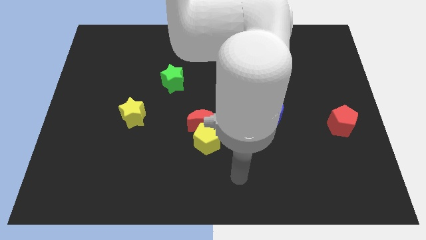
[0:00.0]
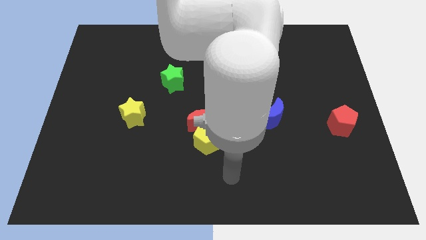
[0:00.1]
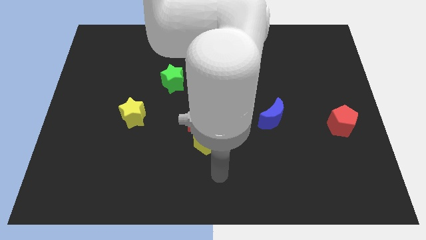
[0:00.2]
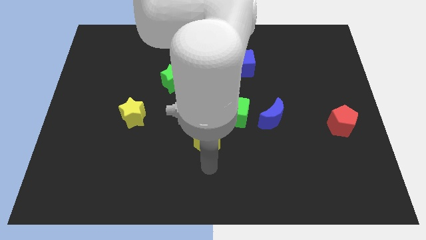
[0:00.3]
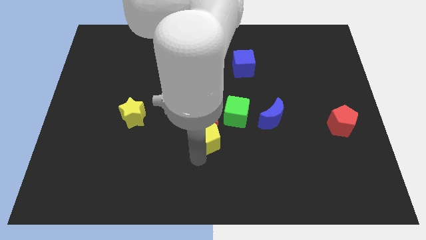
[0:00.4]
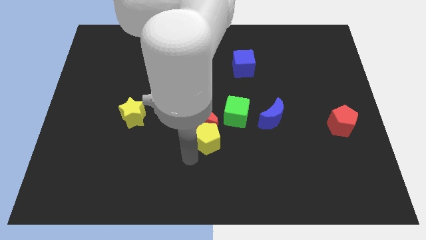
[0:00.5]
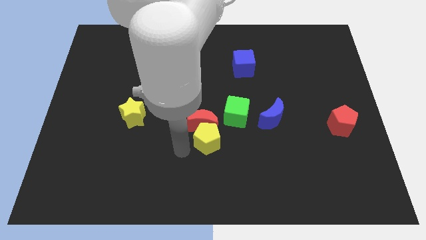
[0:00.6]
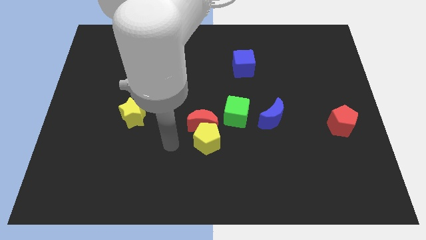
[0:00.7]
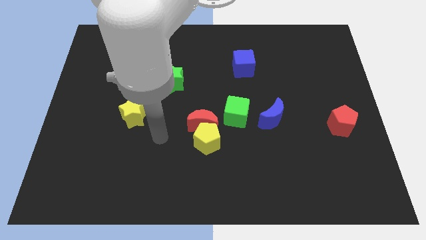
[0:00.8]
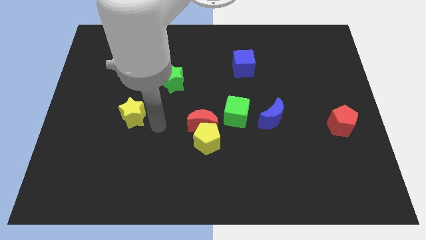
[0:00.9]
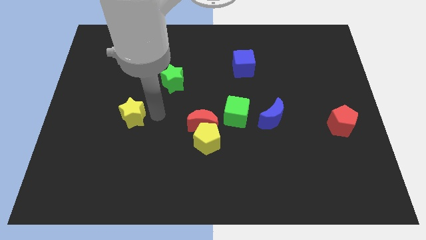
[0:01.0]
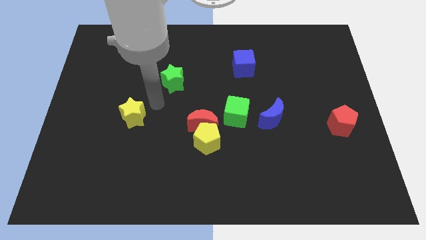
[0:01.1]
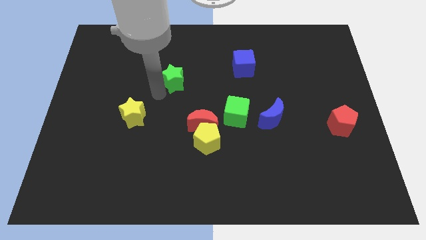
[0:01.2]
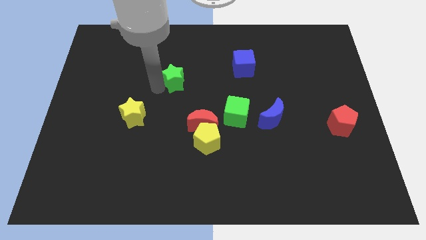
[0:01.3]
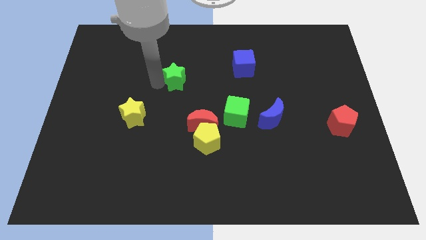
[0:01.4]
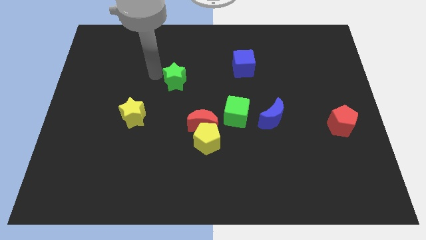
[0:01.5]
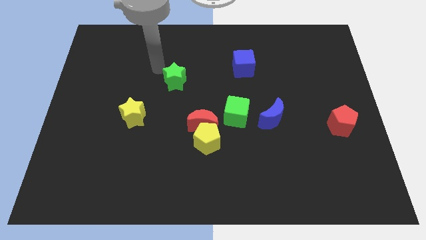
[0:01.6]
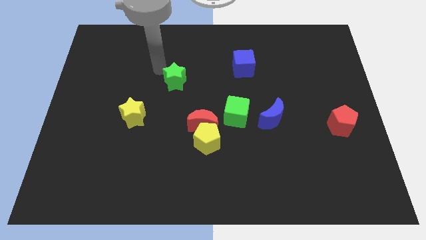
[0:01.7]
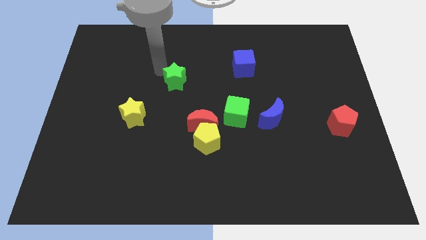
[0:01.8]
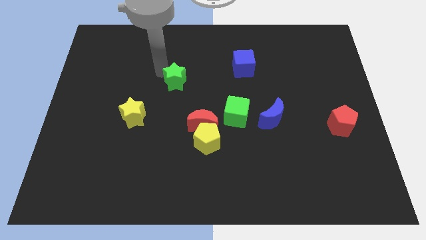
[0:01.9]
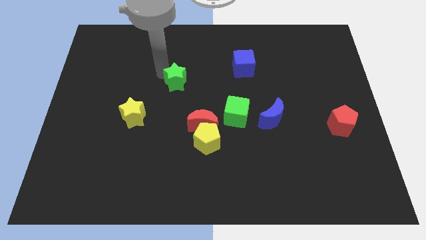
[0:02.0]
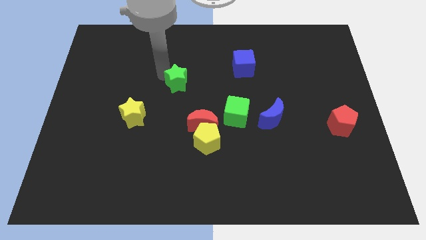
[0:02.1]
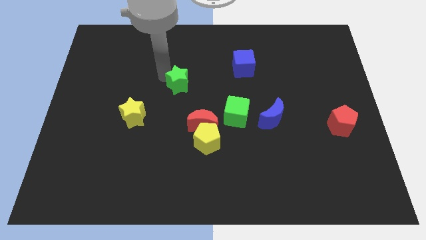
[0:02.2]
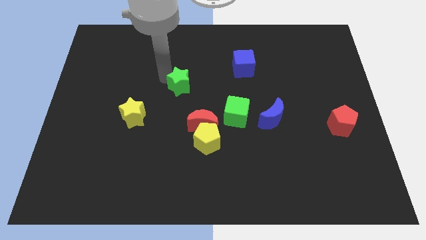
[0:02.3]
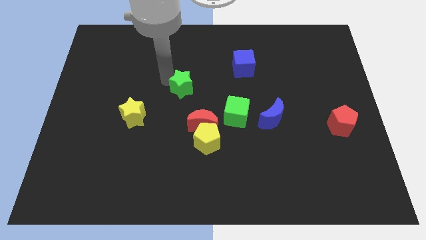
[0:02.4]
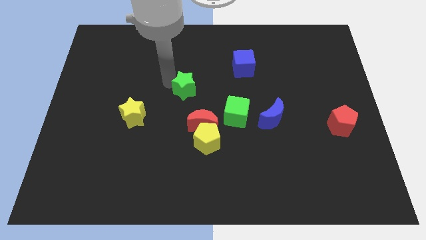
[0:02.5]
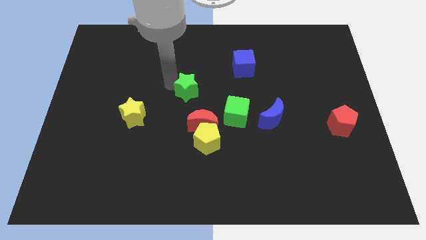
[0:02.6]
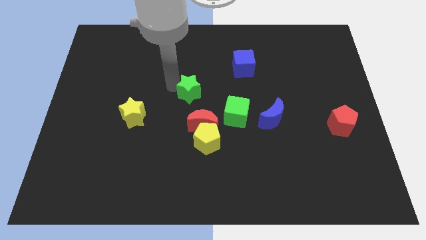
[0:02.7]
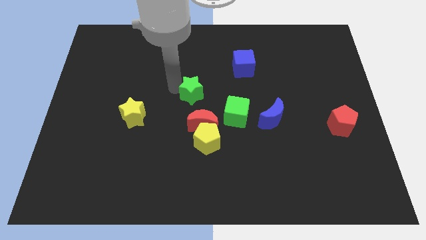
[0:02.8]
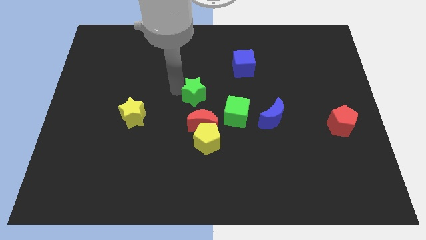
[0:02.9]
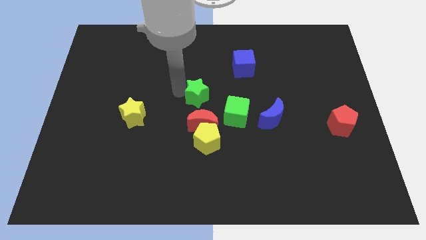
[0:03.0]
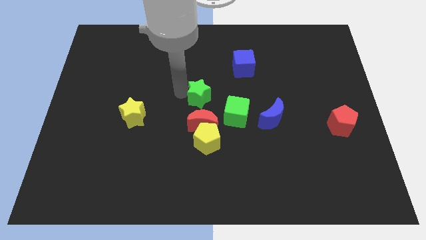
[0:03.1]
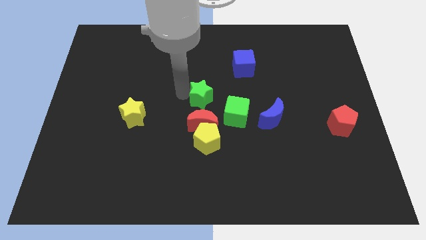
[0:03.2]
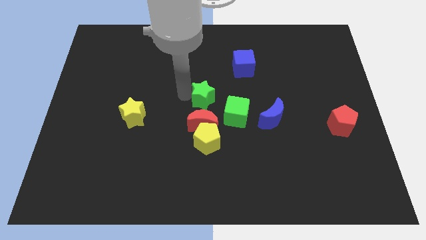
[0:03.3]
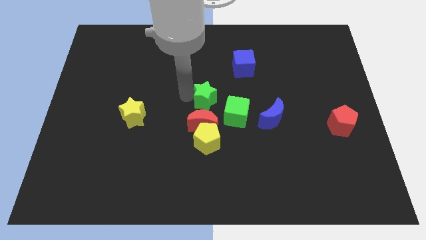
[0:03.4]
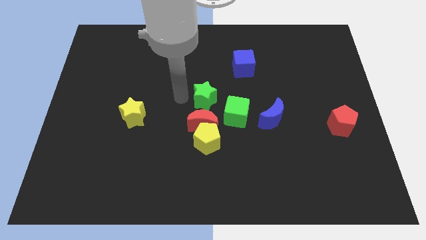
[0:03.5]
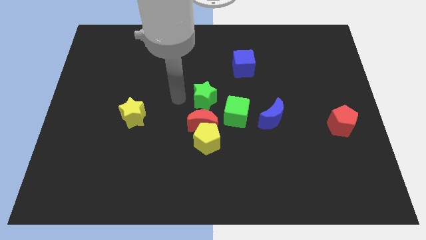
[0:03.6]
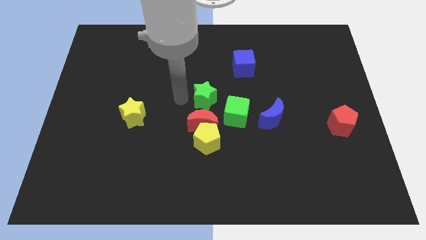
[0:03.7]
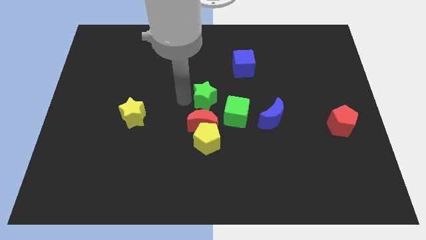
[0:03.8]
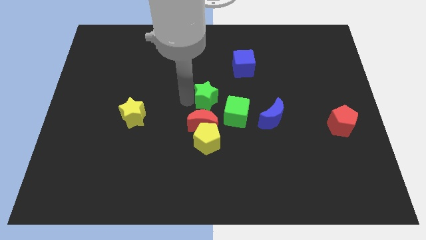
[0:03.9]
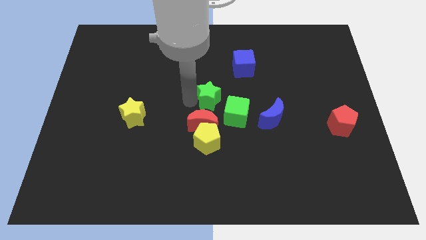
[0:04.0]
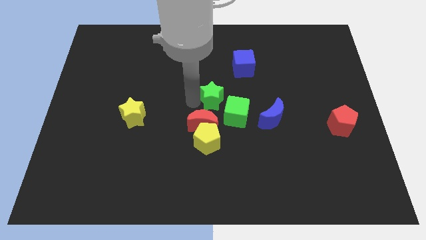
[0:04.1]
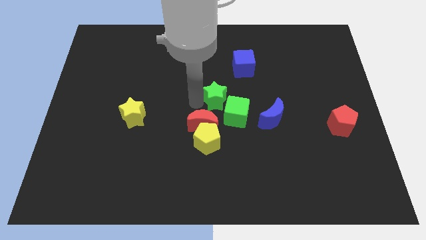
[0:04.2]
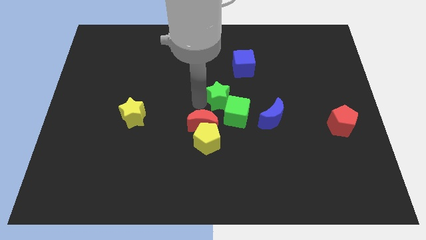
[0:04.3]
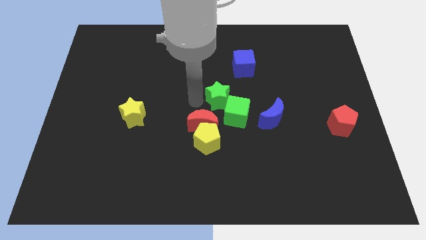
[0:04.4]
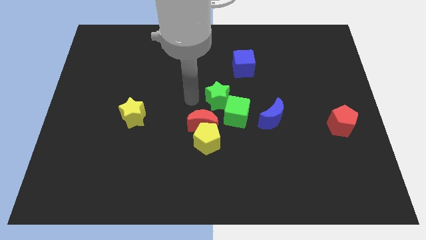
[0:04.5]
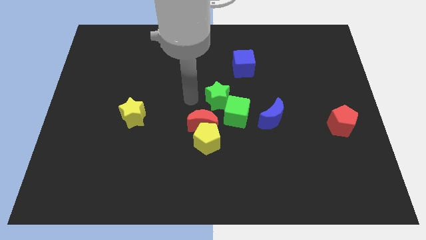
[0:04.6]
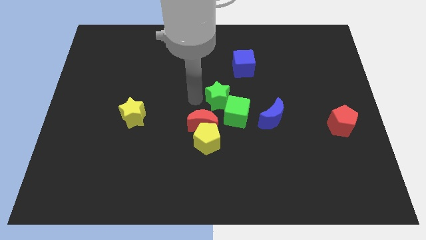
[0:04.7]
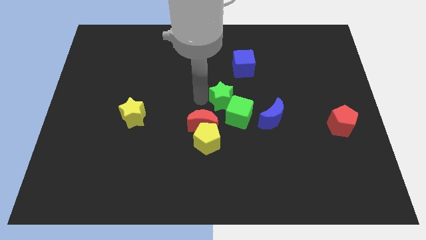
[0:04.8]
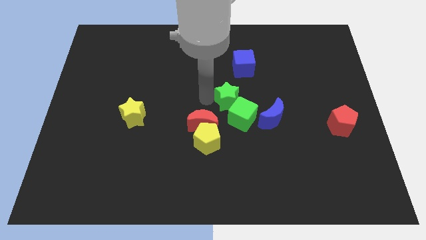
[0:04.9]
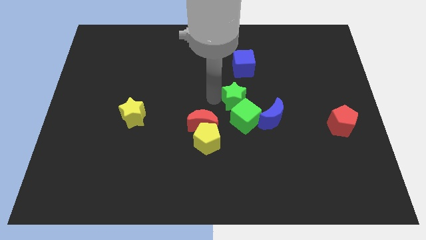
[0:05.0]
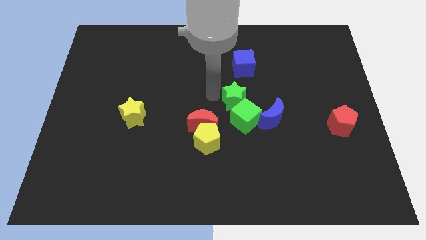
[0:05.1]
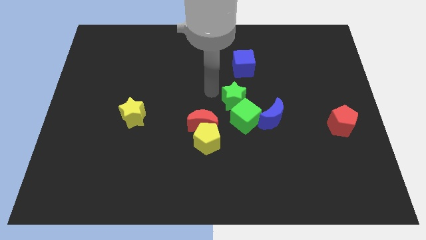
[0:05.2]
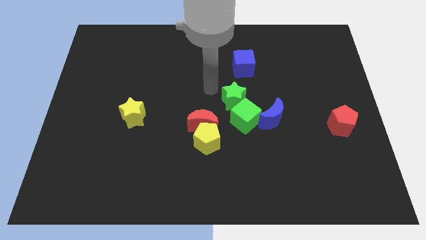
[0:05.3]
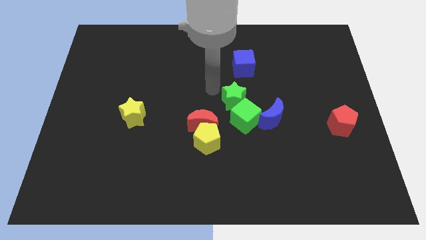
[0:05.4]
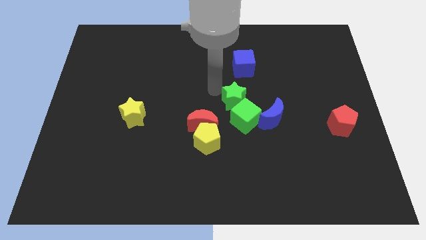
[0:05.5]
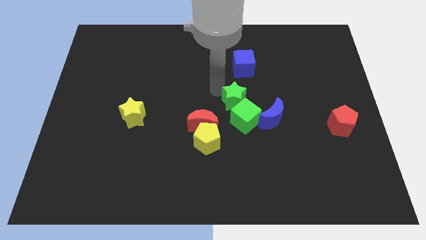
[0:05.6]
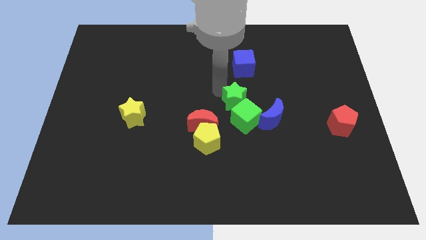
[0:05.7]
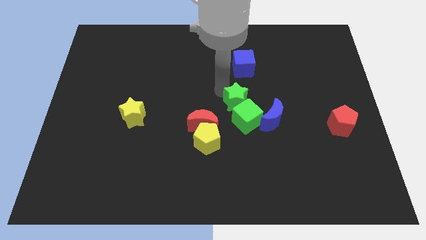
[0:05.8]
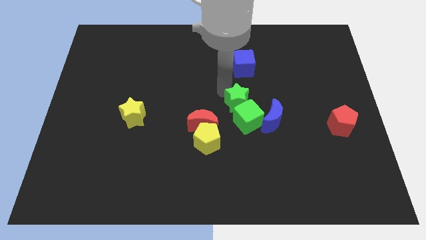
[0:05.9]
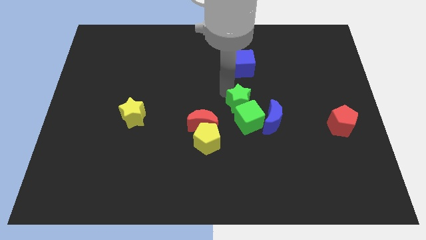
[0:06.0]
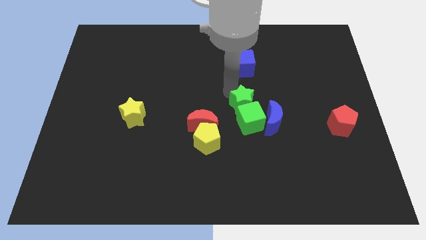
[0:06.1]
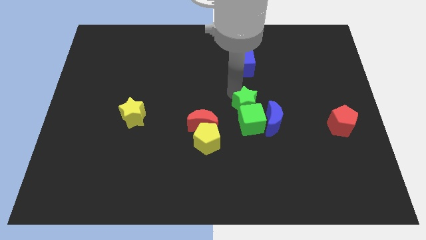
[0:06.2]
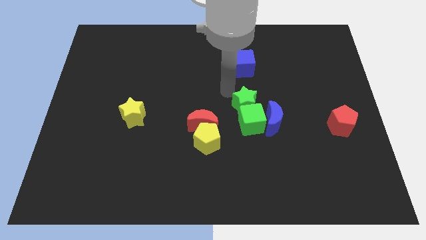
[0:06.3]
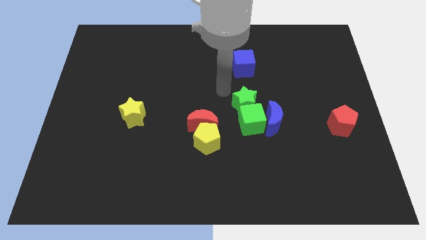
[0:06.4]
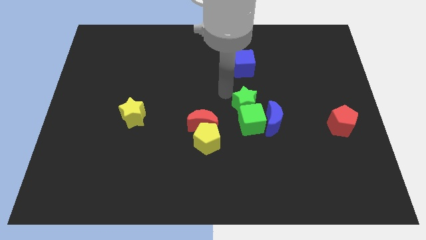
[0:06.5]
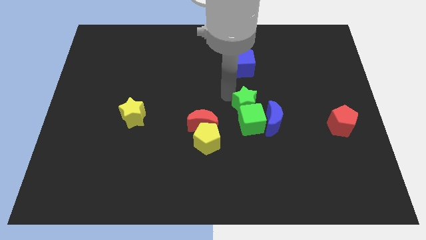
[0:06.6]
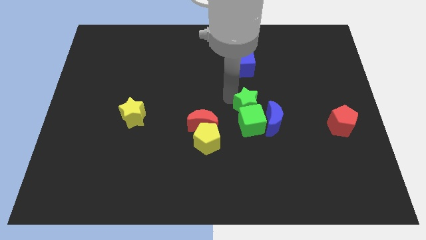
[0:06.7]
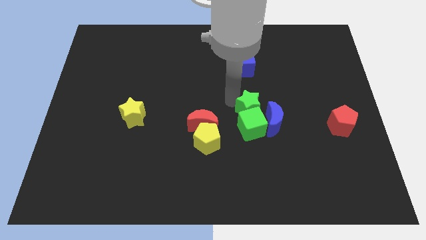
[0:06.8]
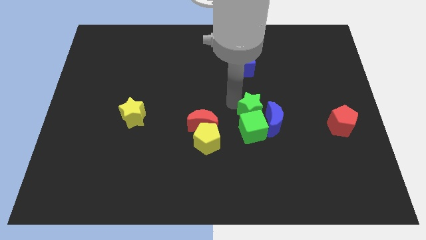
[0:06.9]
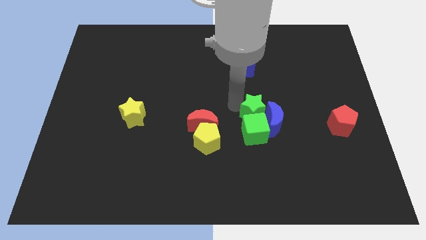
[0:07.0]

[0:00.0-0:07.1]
put the green star towards the blue moon
